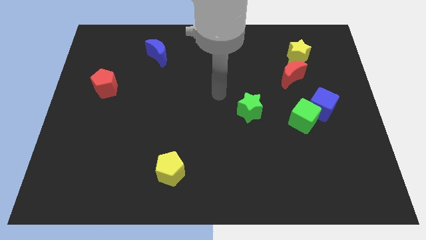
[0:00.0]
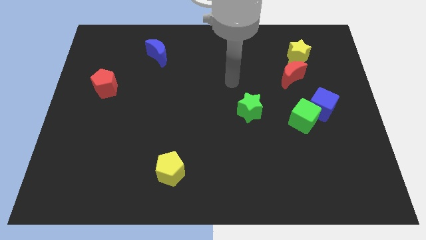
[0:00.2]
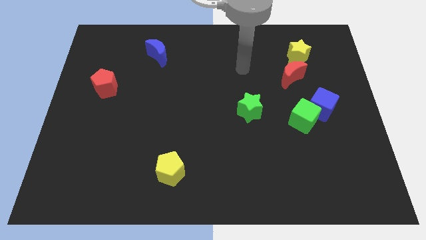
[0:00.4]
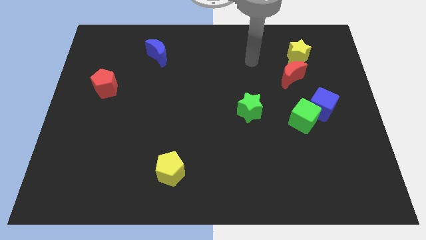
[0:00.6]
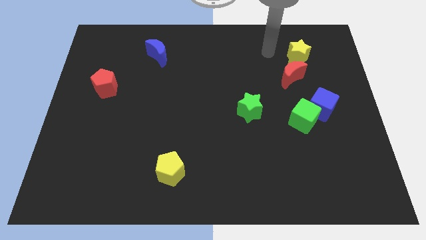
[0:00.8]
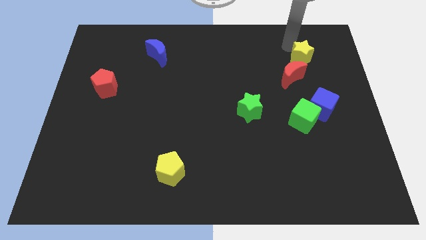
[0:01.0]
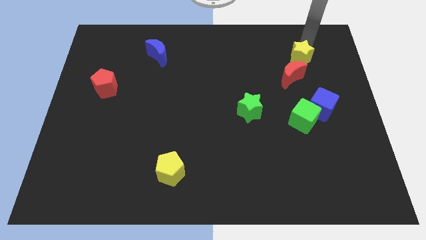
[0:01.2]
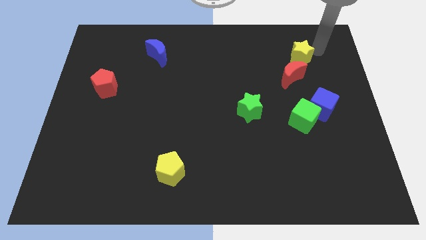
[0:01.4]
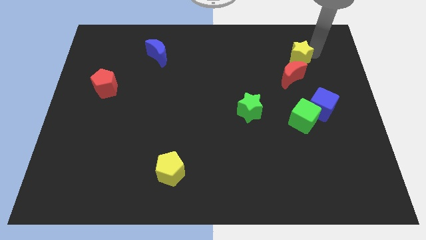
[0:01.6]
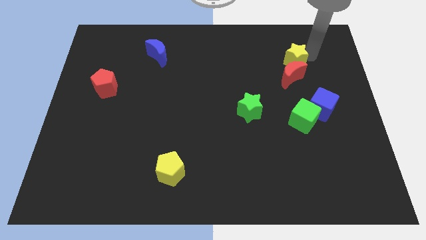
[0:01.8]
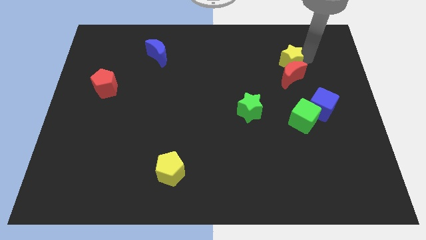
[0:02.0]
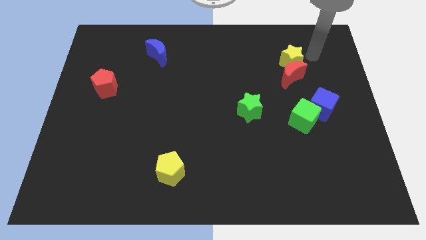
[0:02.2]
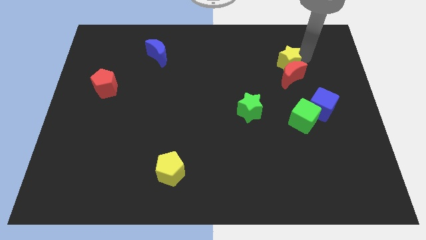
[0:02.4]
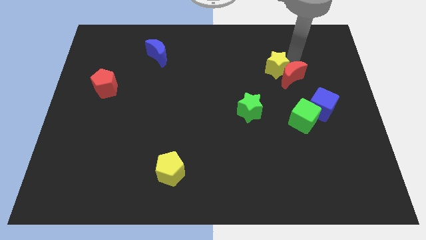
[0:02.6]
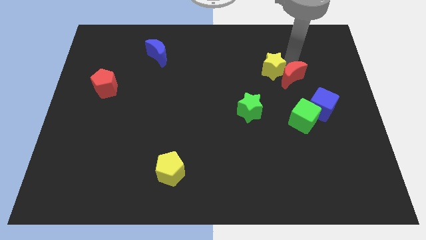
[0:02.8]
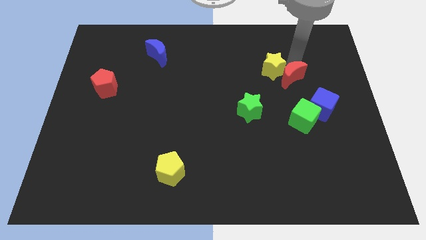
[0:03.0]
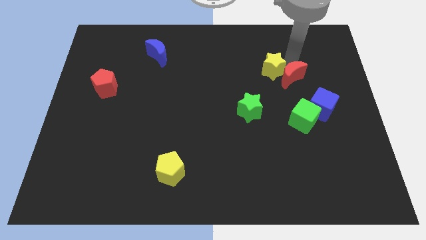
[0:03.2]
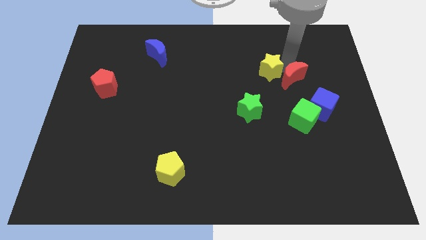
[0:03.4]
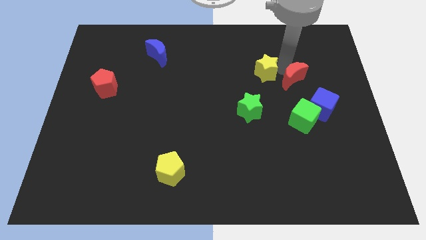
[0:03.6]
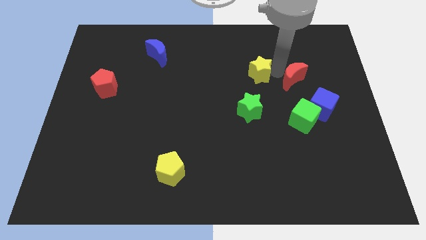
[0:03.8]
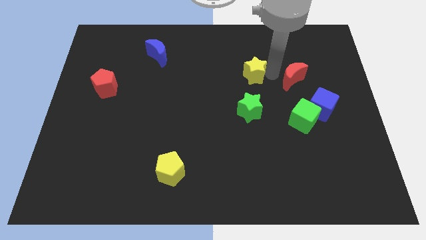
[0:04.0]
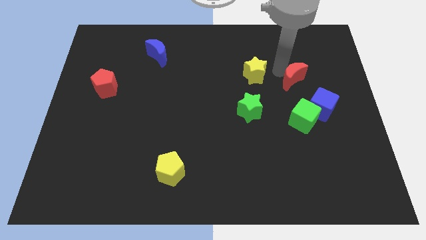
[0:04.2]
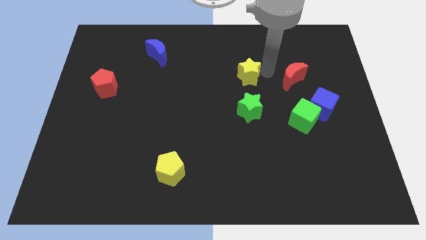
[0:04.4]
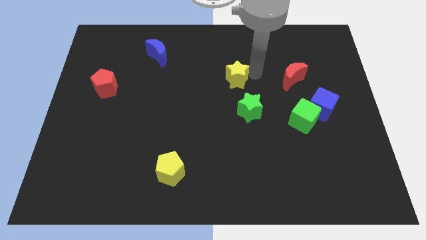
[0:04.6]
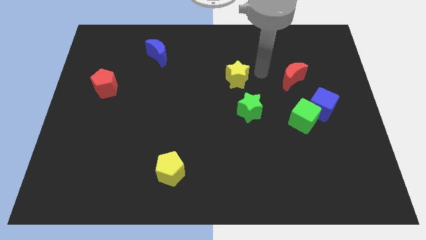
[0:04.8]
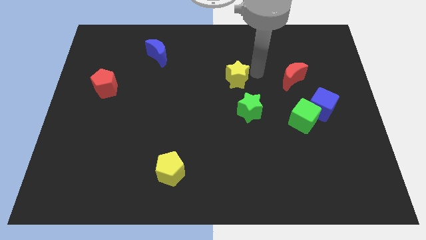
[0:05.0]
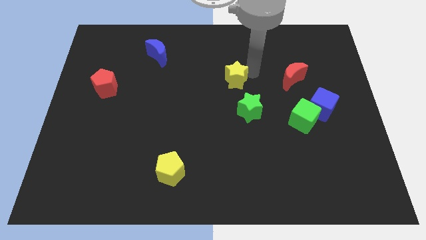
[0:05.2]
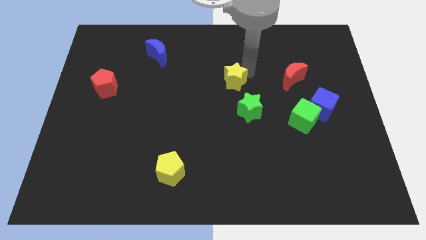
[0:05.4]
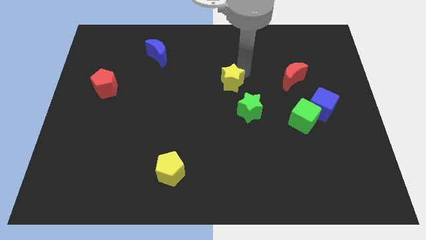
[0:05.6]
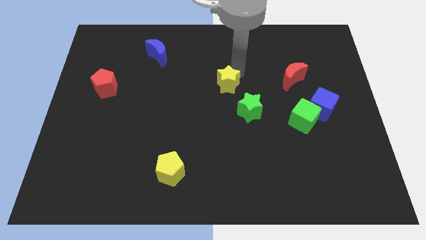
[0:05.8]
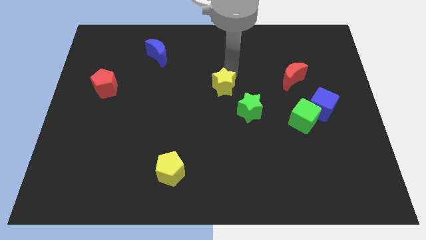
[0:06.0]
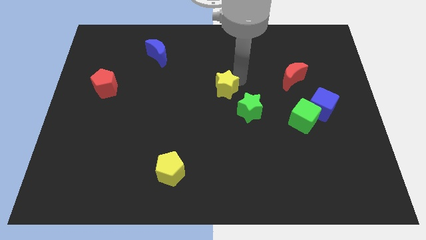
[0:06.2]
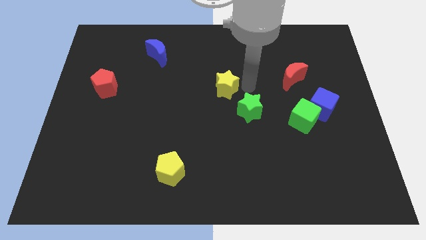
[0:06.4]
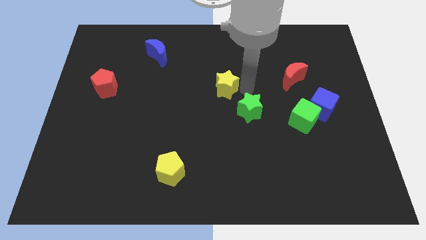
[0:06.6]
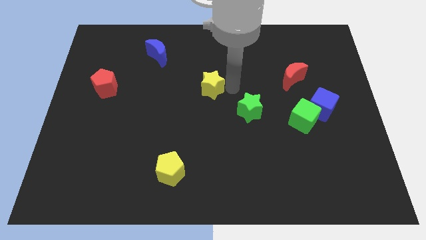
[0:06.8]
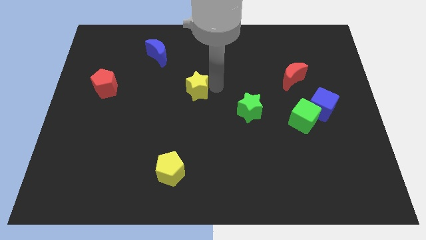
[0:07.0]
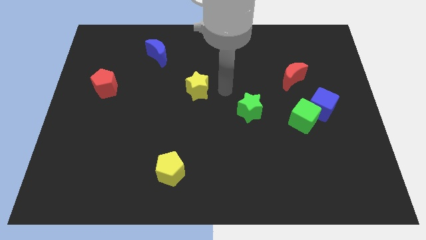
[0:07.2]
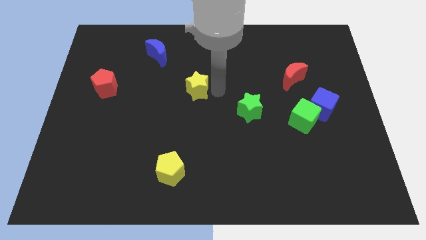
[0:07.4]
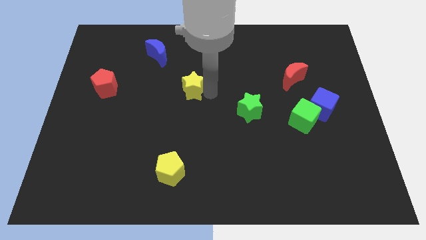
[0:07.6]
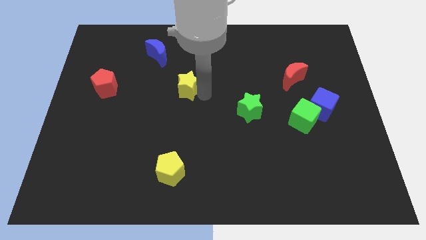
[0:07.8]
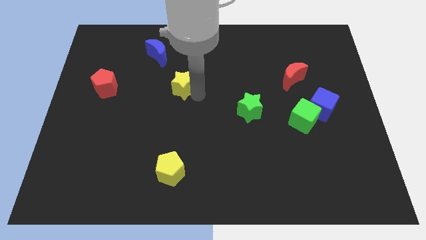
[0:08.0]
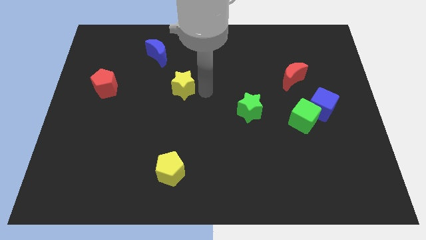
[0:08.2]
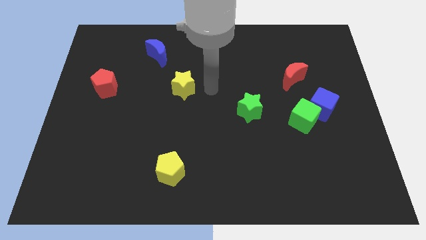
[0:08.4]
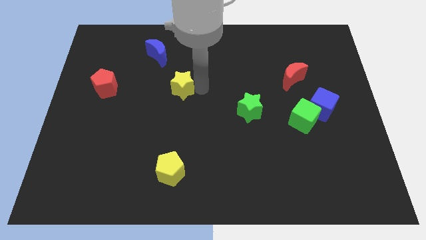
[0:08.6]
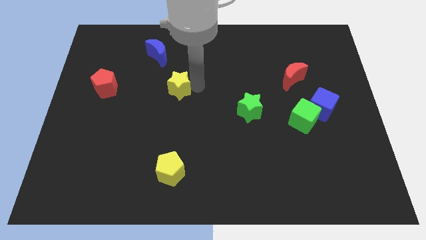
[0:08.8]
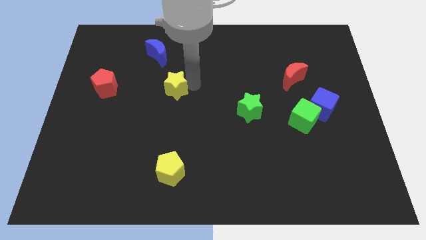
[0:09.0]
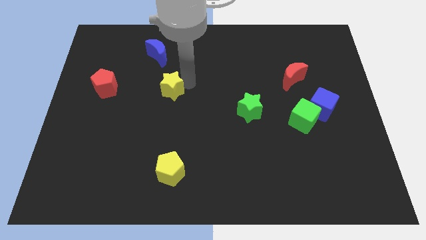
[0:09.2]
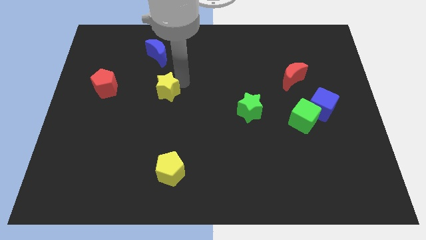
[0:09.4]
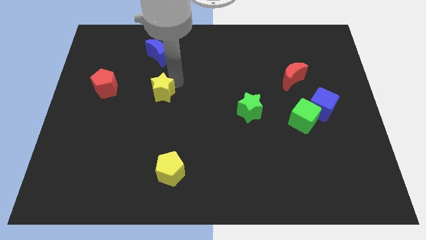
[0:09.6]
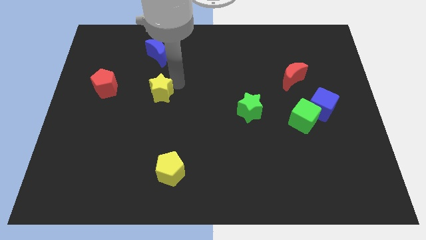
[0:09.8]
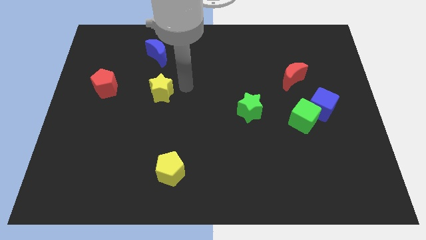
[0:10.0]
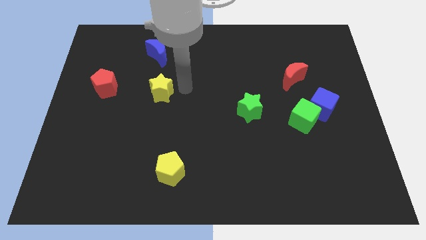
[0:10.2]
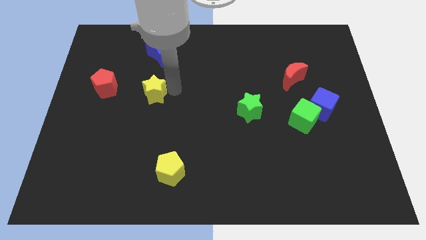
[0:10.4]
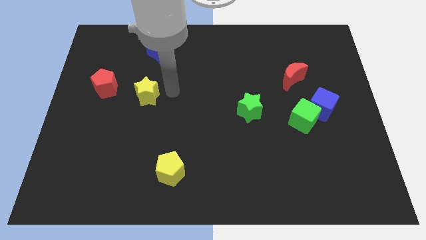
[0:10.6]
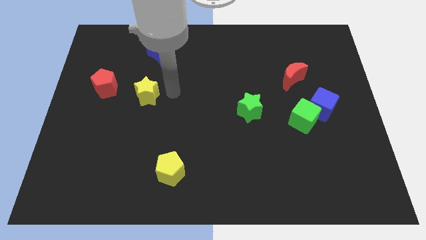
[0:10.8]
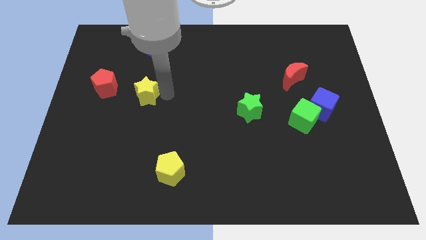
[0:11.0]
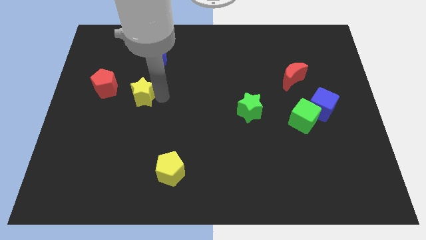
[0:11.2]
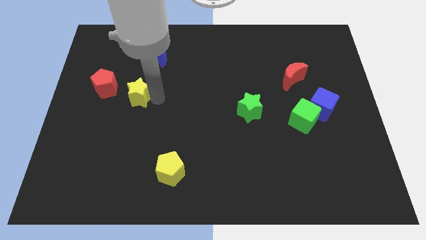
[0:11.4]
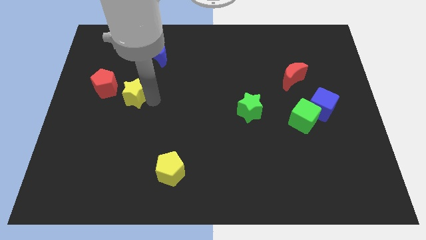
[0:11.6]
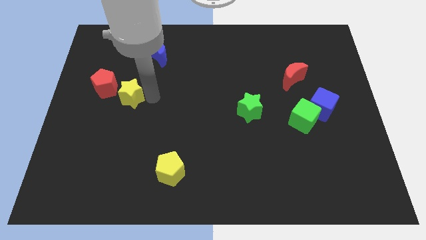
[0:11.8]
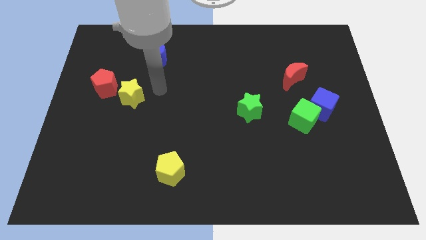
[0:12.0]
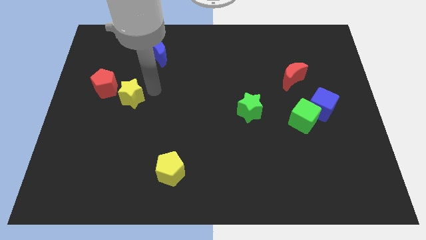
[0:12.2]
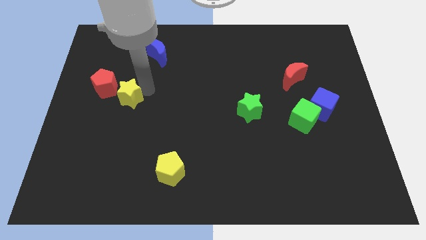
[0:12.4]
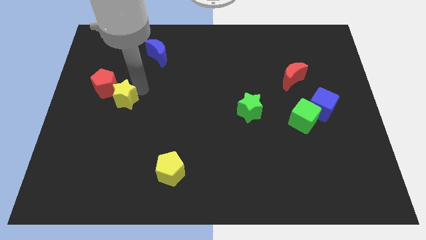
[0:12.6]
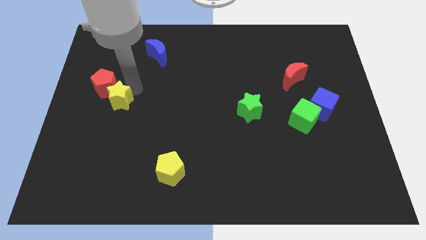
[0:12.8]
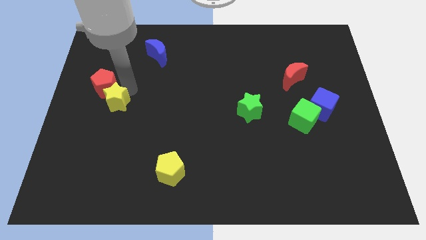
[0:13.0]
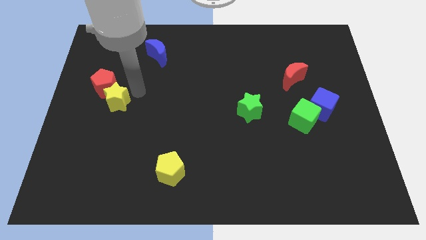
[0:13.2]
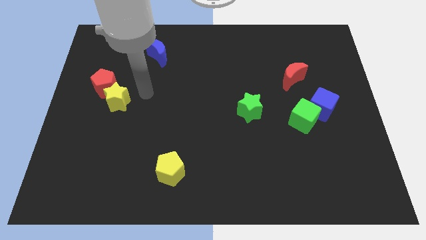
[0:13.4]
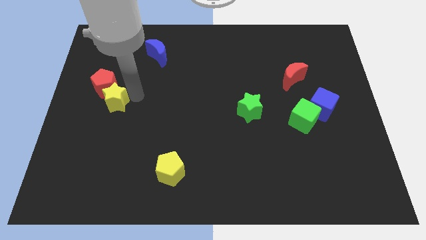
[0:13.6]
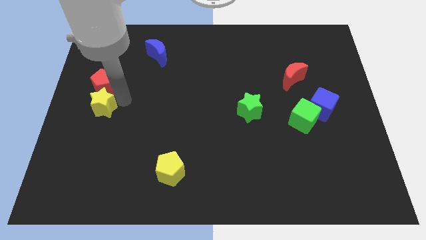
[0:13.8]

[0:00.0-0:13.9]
move the yellow star to the center left

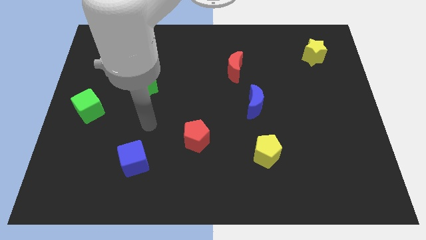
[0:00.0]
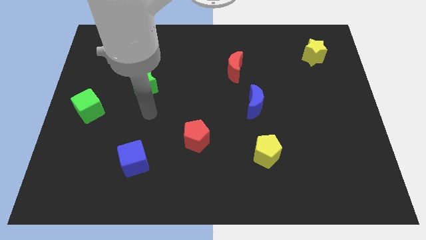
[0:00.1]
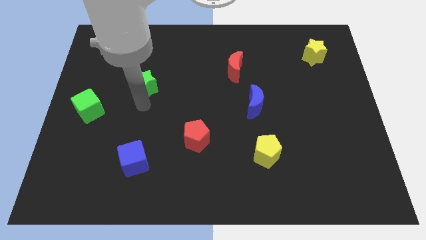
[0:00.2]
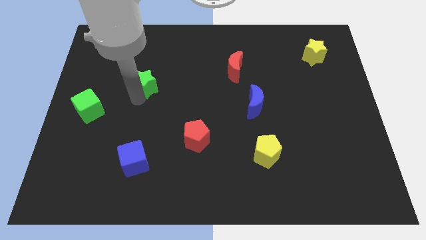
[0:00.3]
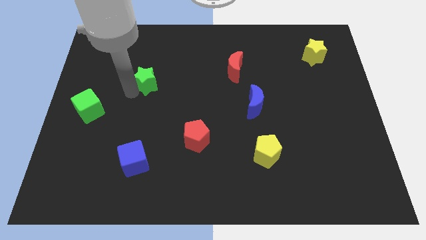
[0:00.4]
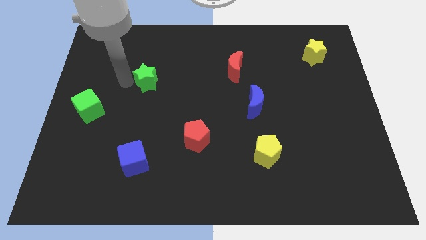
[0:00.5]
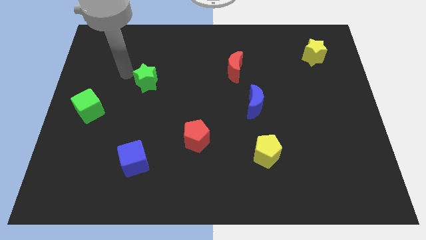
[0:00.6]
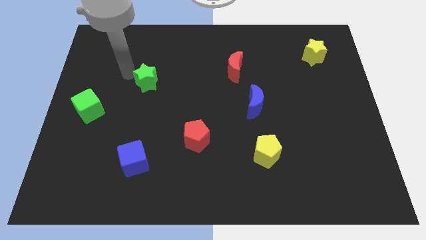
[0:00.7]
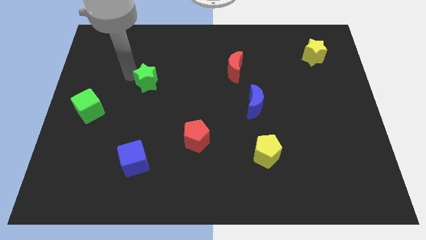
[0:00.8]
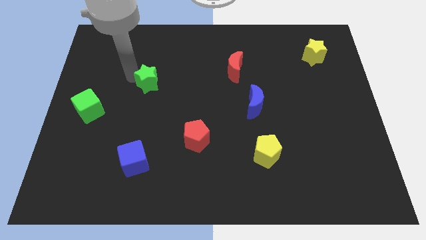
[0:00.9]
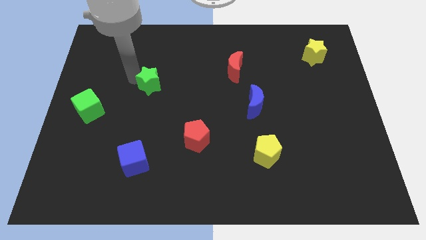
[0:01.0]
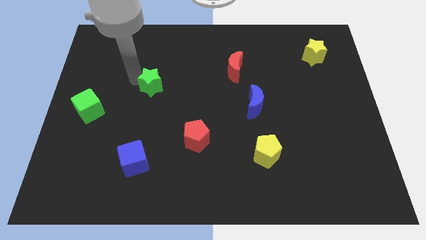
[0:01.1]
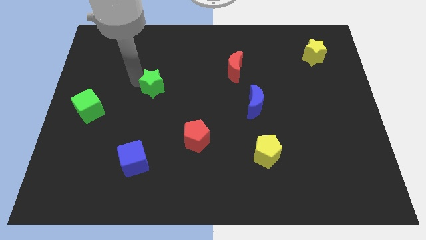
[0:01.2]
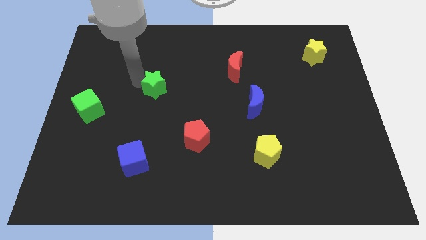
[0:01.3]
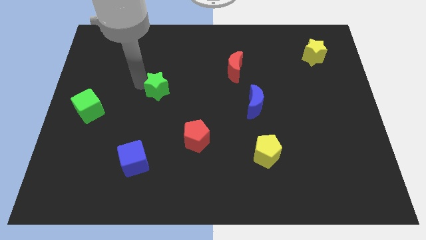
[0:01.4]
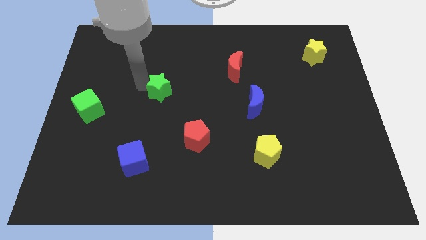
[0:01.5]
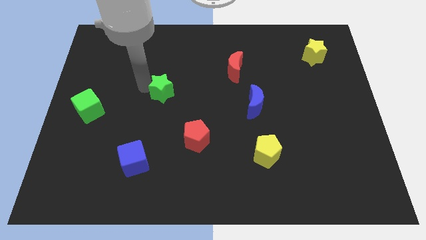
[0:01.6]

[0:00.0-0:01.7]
move the green star to the center
